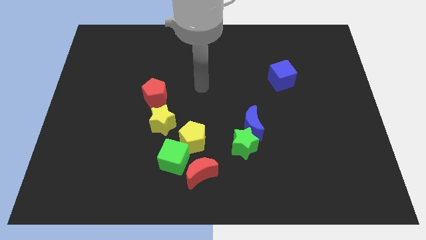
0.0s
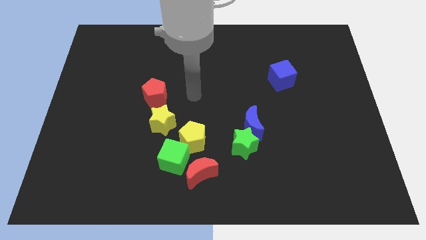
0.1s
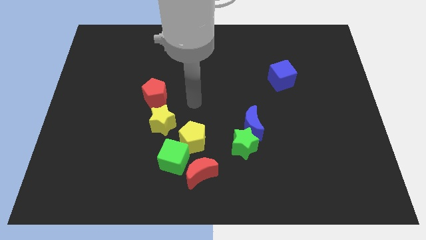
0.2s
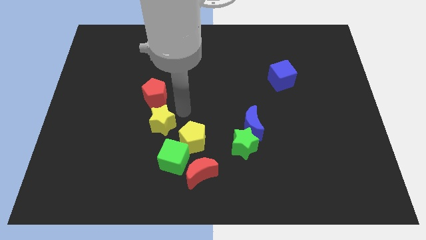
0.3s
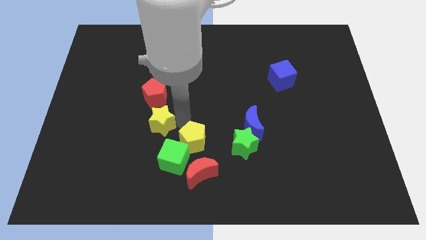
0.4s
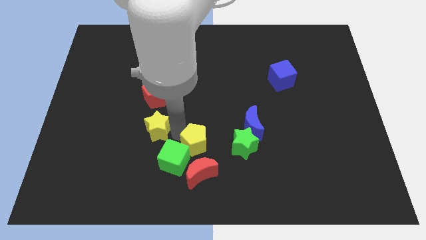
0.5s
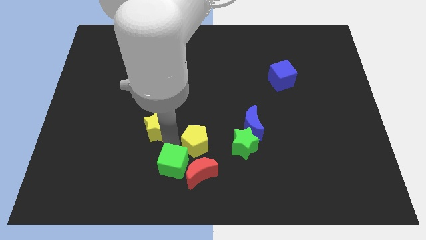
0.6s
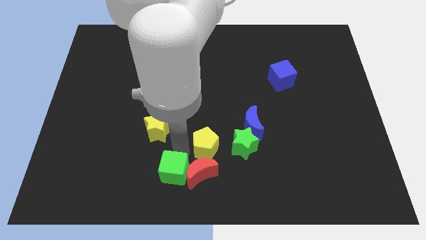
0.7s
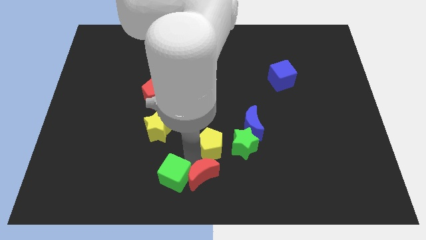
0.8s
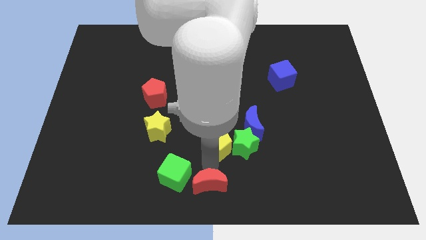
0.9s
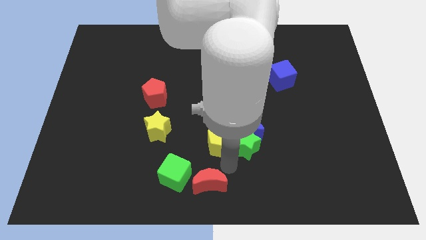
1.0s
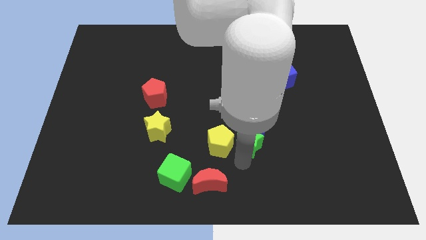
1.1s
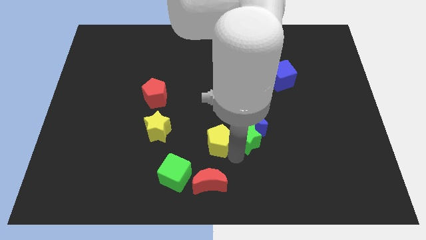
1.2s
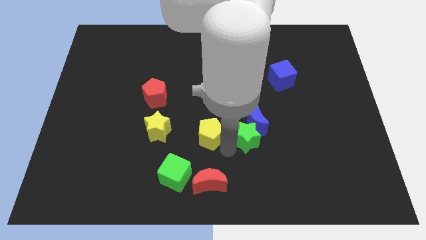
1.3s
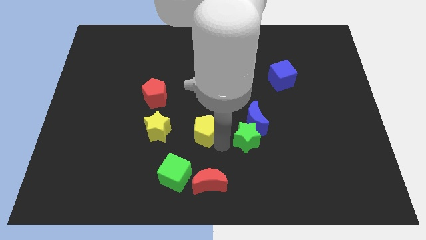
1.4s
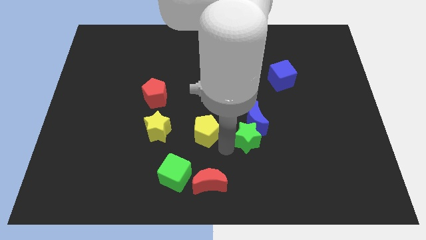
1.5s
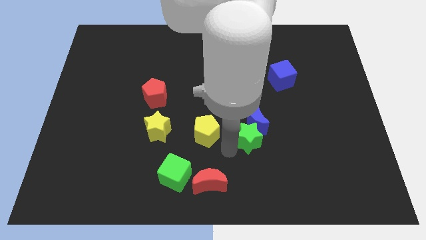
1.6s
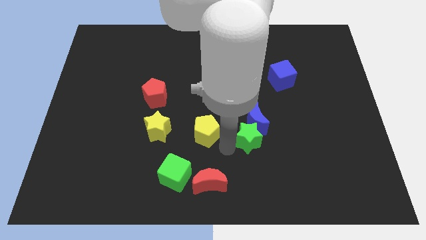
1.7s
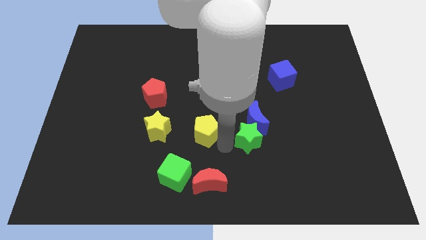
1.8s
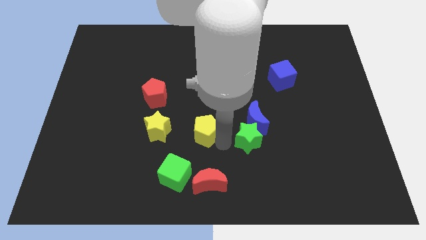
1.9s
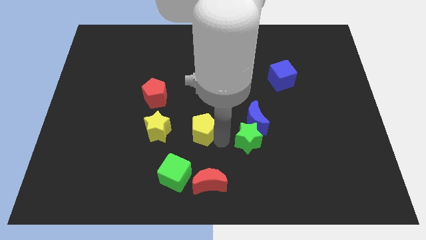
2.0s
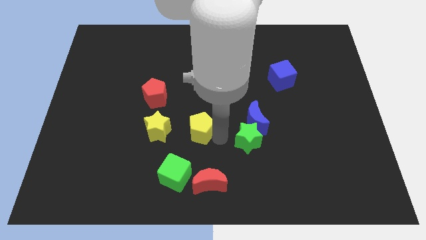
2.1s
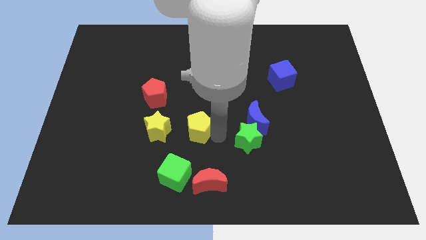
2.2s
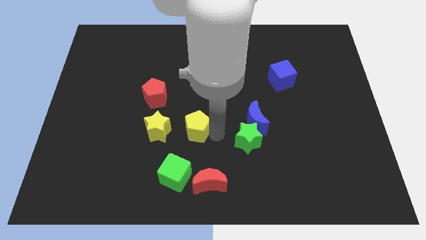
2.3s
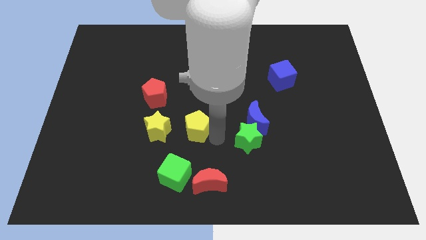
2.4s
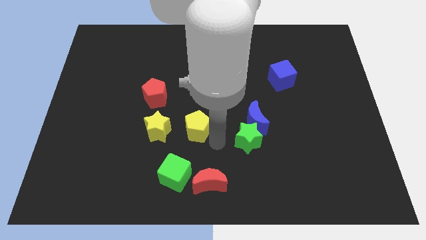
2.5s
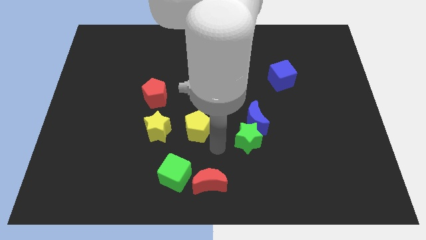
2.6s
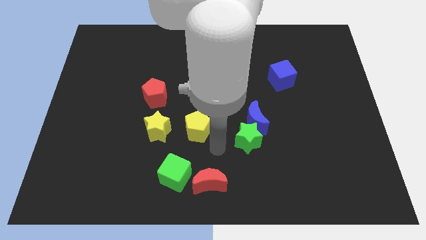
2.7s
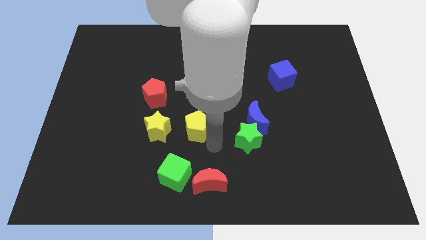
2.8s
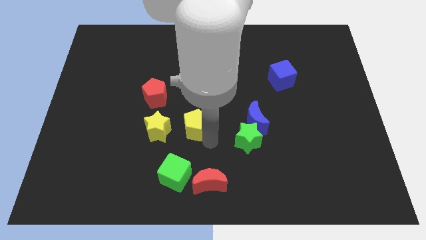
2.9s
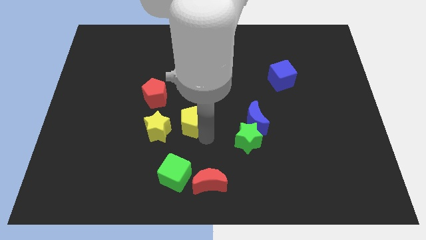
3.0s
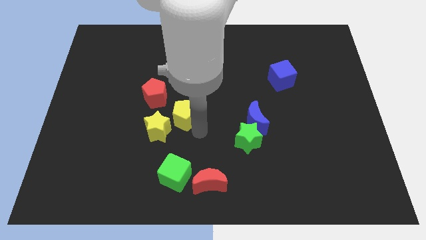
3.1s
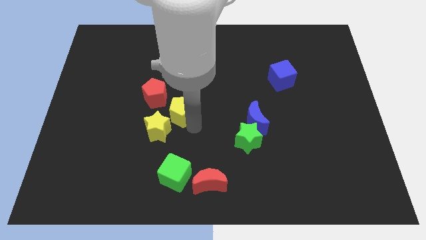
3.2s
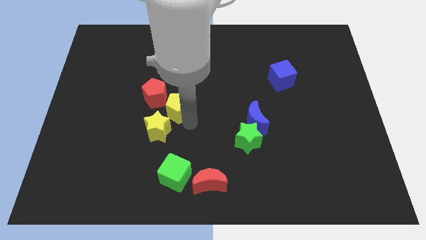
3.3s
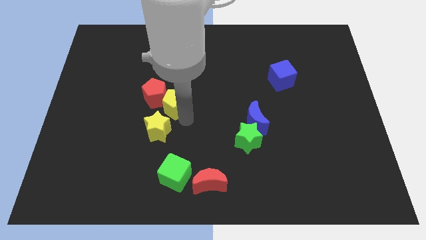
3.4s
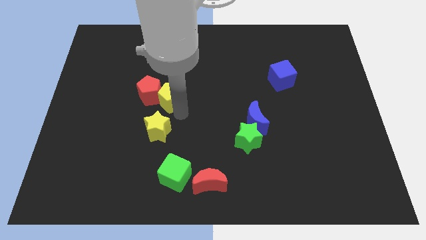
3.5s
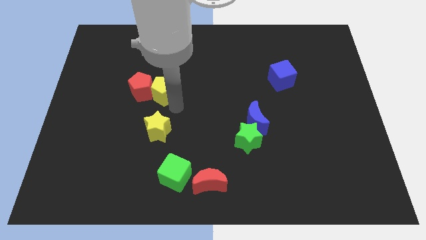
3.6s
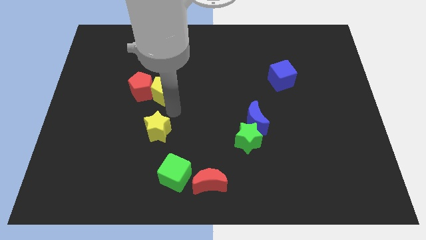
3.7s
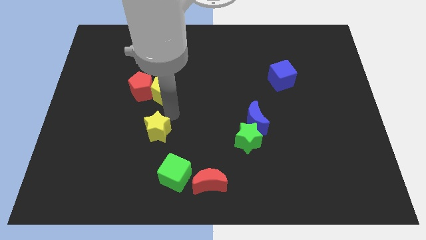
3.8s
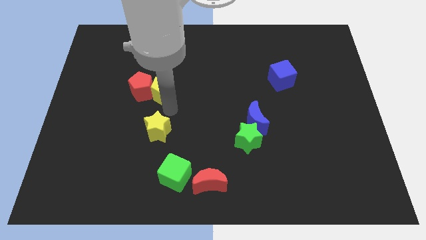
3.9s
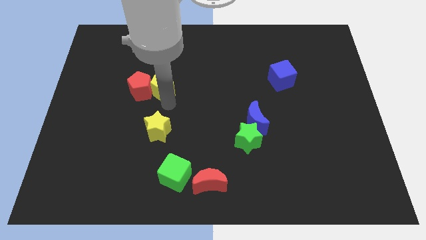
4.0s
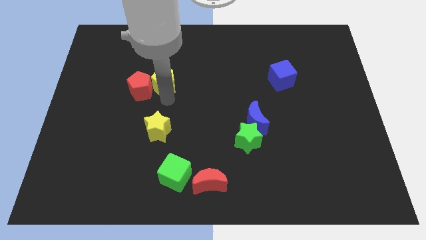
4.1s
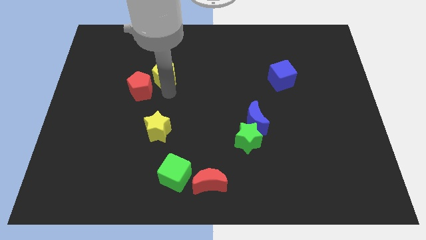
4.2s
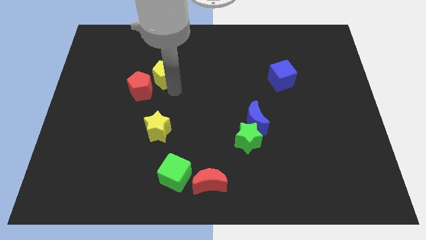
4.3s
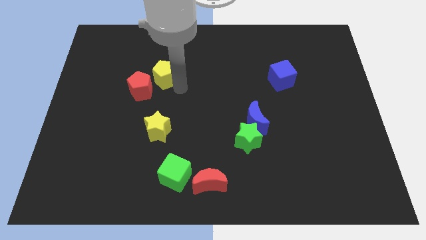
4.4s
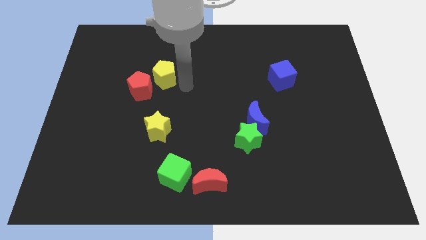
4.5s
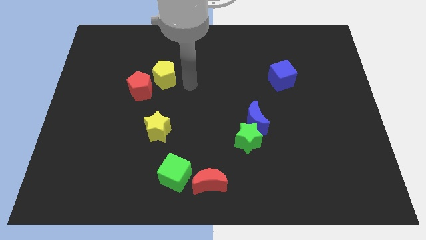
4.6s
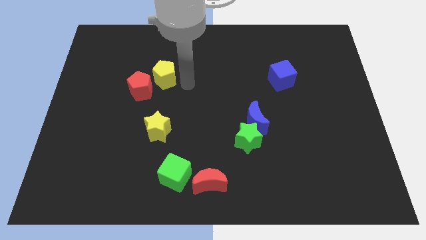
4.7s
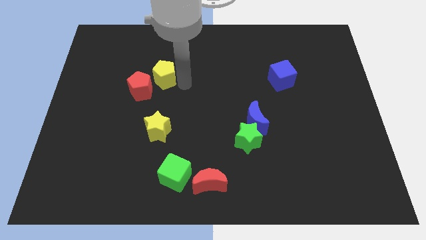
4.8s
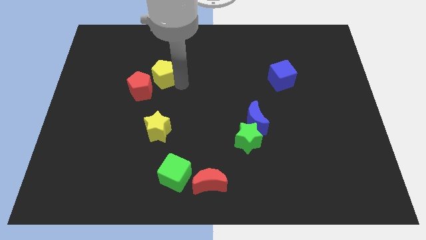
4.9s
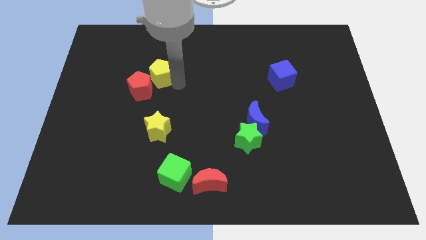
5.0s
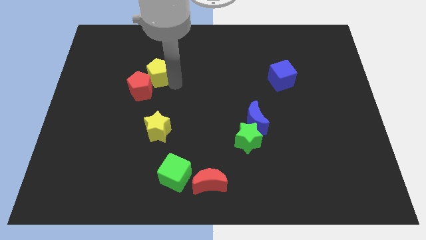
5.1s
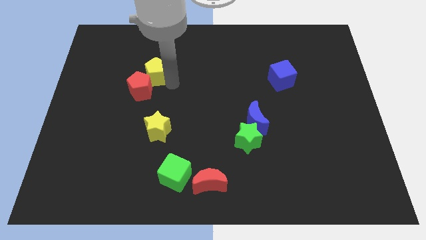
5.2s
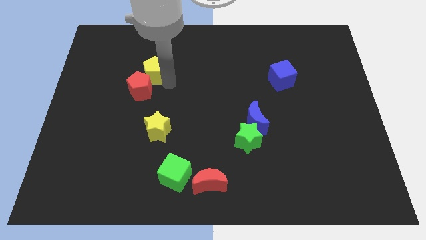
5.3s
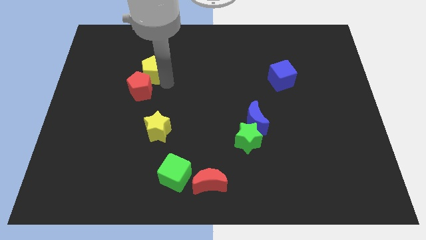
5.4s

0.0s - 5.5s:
push the yellow pentagon upwards and to the left diagonally

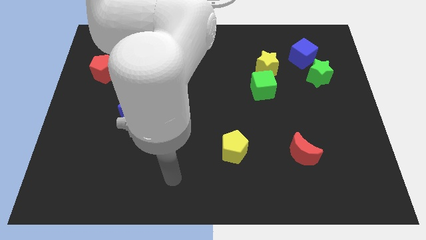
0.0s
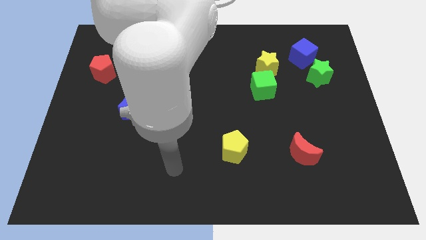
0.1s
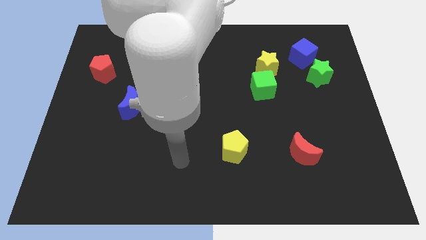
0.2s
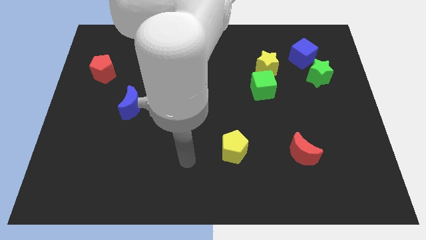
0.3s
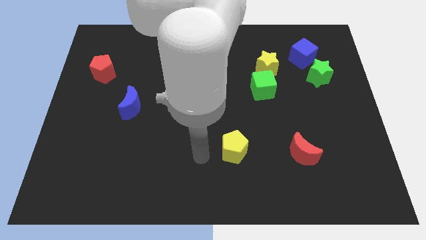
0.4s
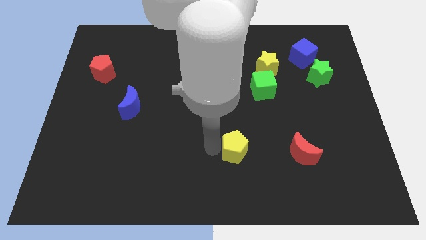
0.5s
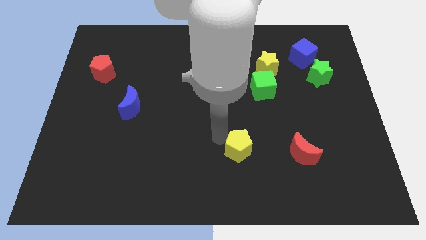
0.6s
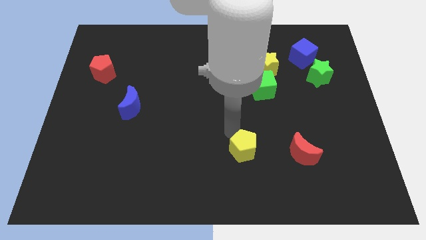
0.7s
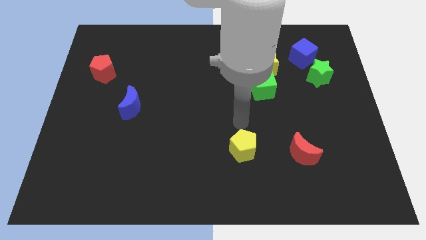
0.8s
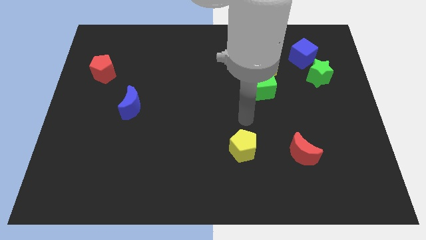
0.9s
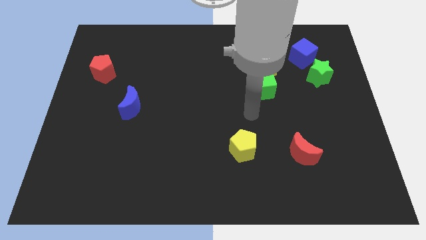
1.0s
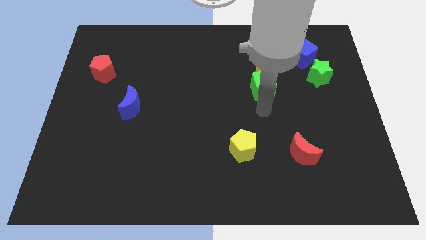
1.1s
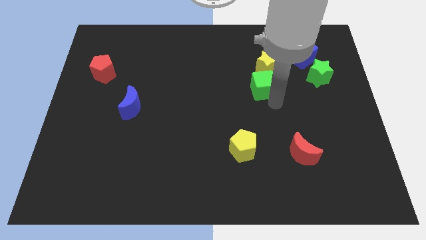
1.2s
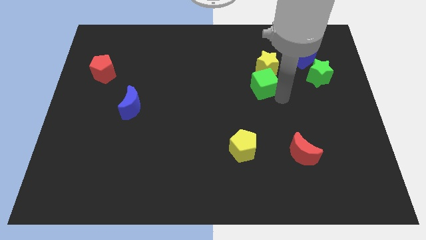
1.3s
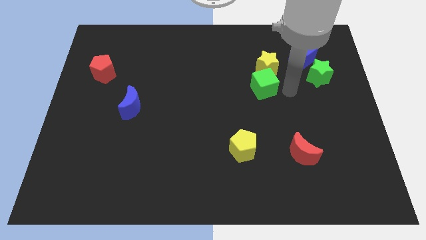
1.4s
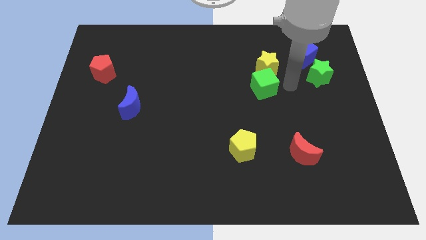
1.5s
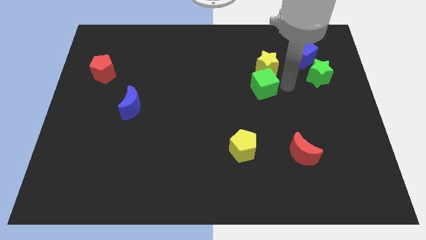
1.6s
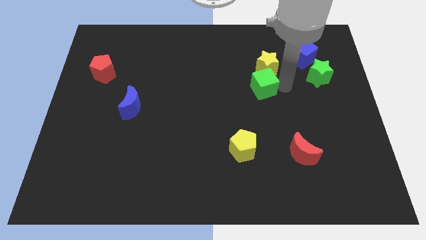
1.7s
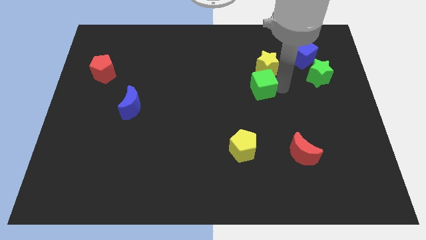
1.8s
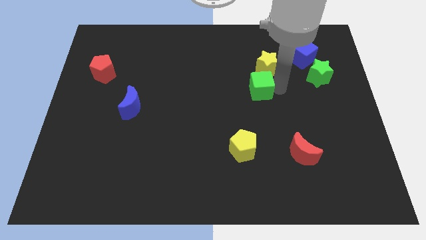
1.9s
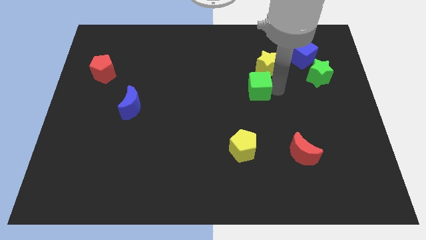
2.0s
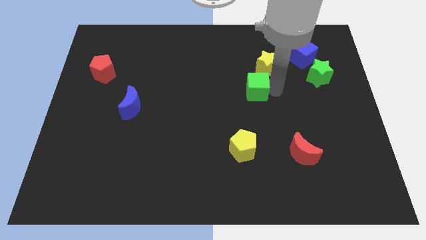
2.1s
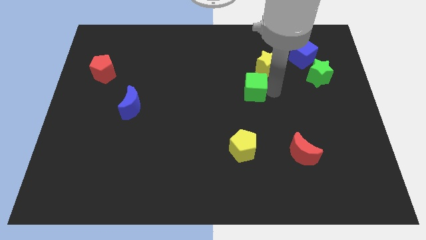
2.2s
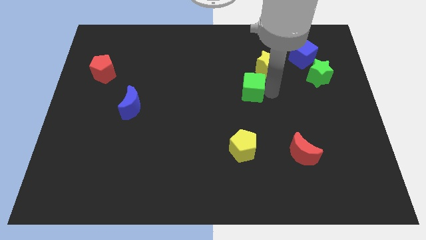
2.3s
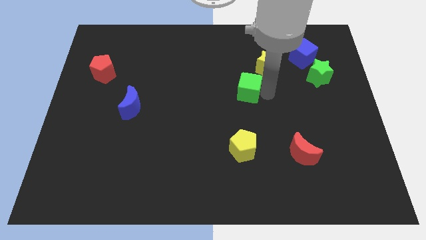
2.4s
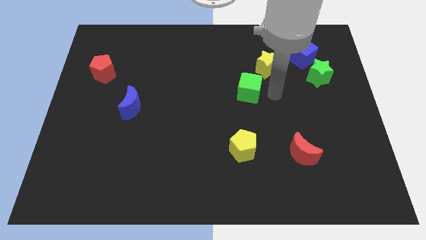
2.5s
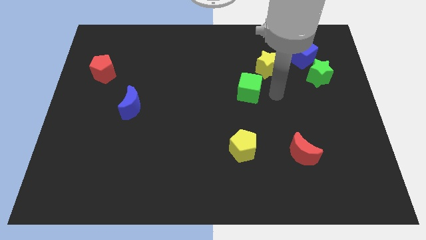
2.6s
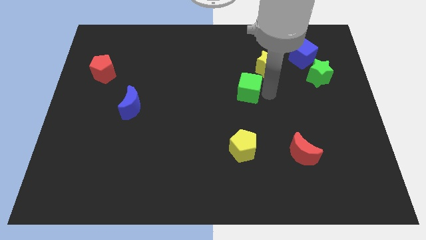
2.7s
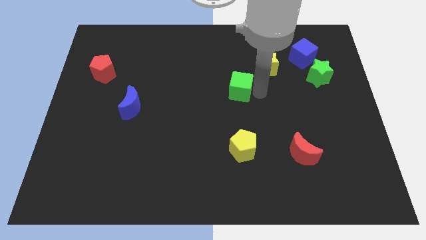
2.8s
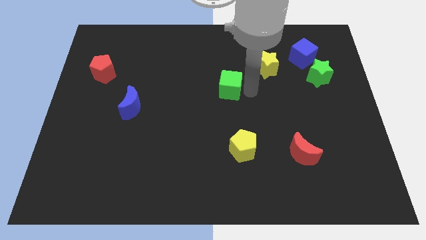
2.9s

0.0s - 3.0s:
move the green cube somewhat left
